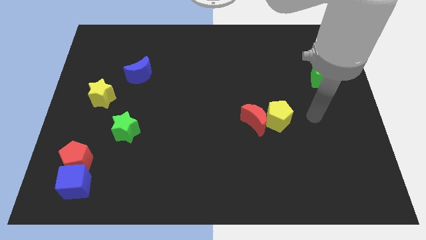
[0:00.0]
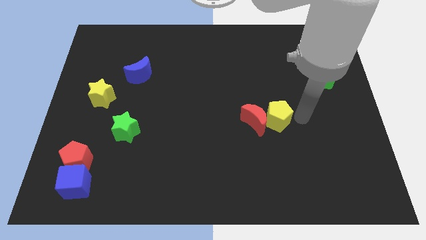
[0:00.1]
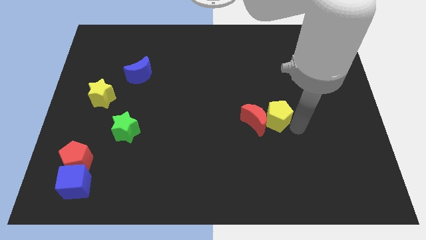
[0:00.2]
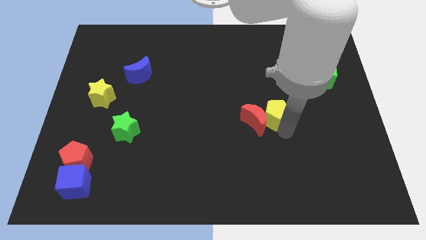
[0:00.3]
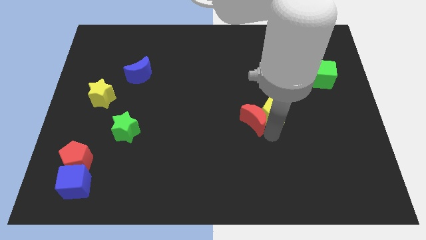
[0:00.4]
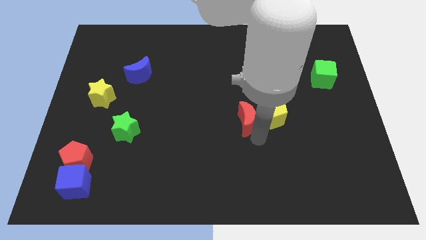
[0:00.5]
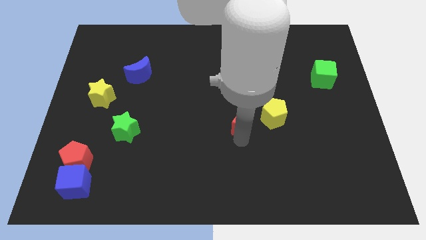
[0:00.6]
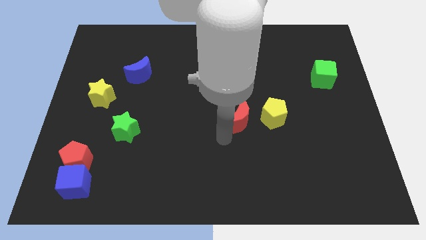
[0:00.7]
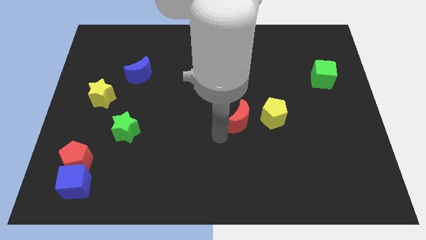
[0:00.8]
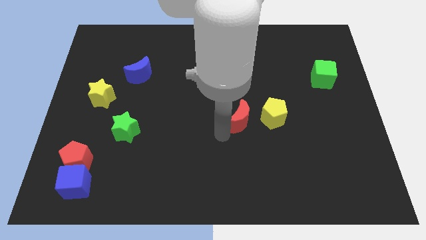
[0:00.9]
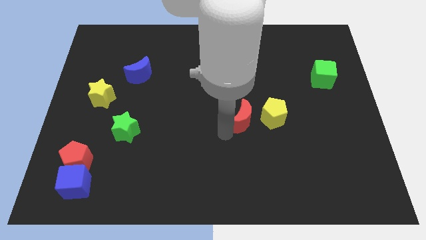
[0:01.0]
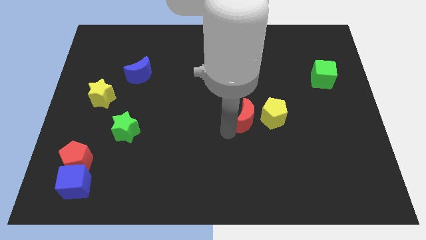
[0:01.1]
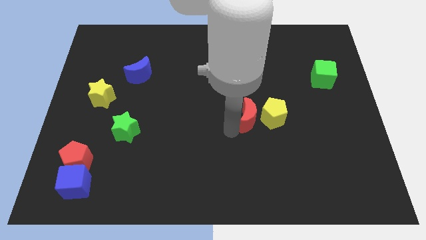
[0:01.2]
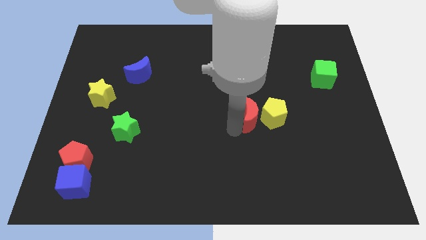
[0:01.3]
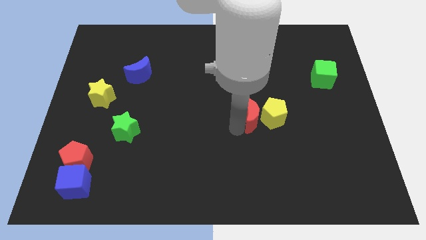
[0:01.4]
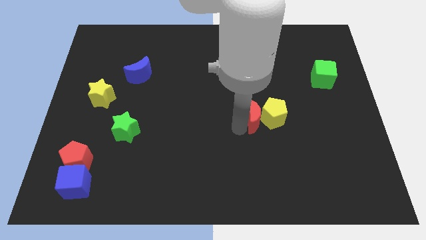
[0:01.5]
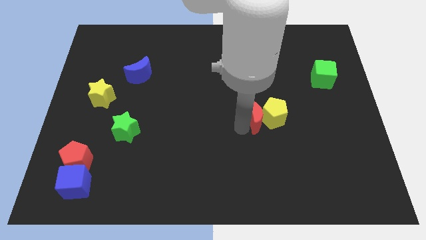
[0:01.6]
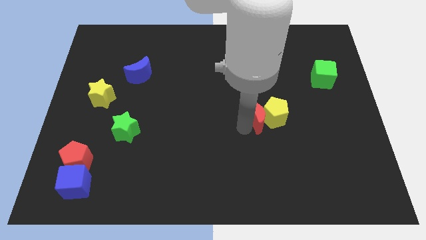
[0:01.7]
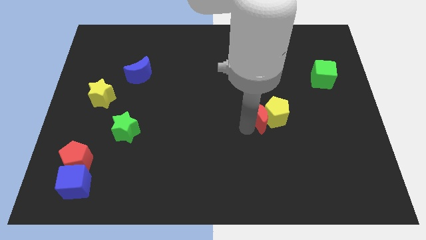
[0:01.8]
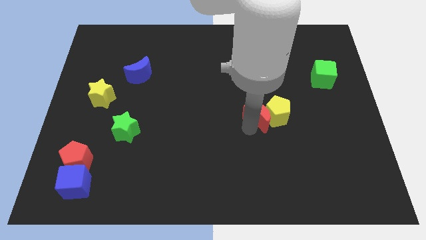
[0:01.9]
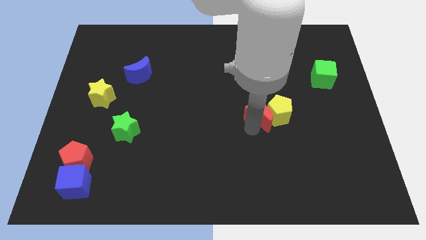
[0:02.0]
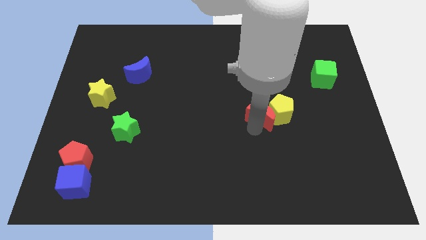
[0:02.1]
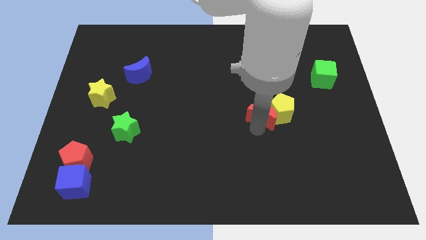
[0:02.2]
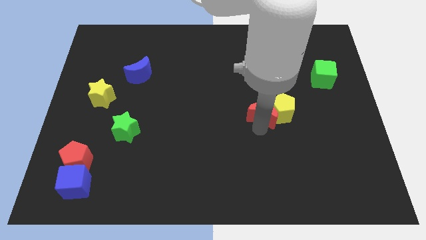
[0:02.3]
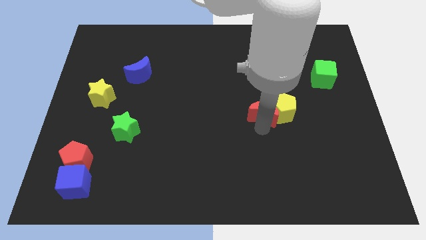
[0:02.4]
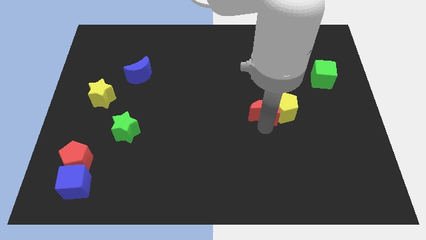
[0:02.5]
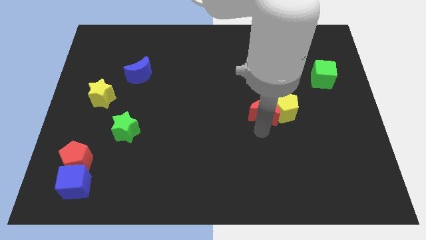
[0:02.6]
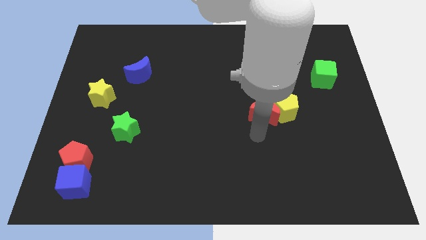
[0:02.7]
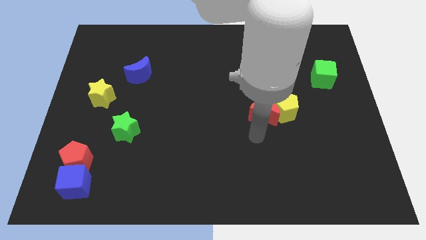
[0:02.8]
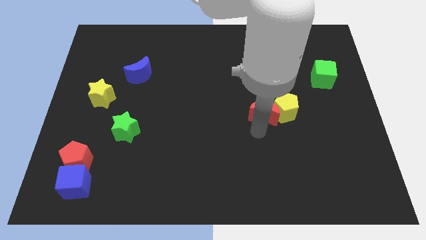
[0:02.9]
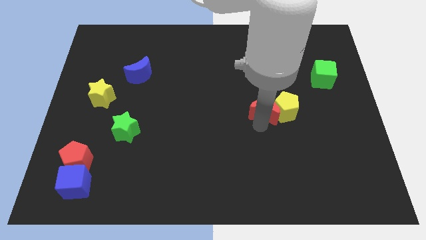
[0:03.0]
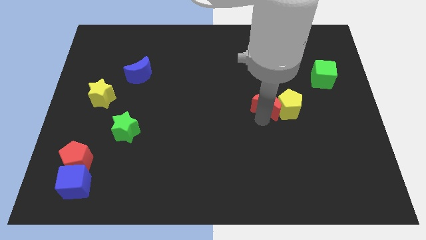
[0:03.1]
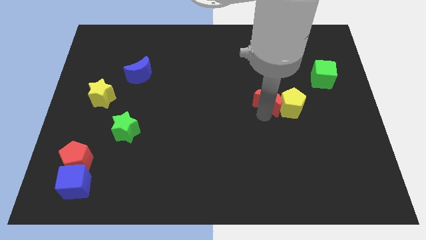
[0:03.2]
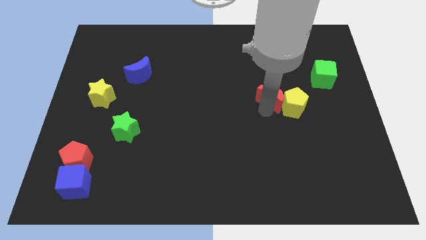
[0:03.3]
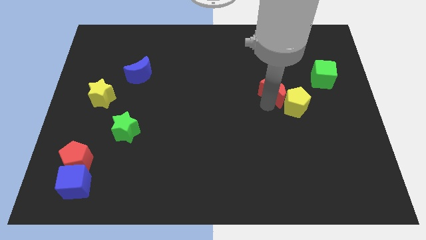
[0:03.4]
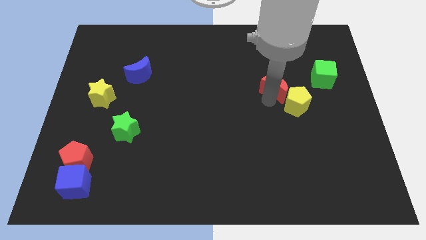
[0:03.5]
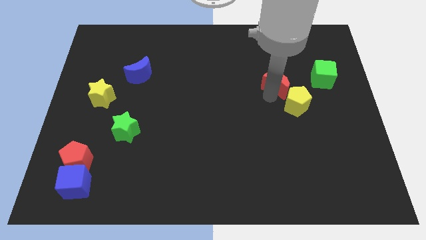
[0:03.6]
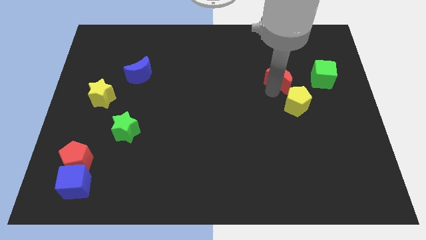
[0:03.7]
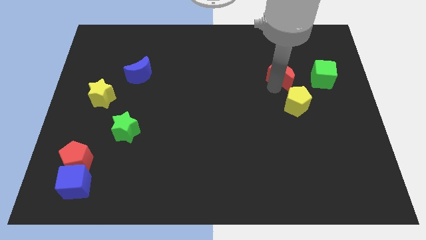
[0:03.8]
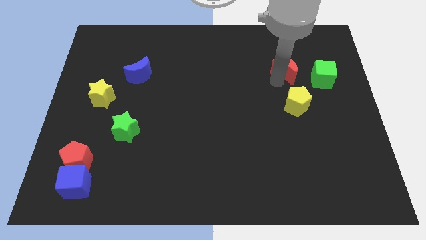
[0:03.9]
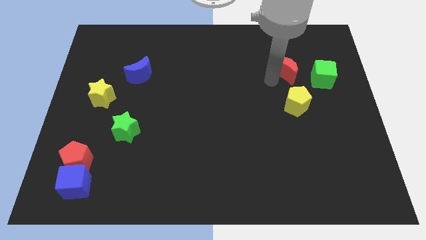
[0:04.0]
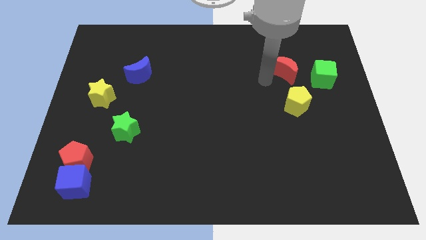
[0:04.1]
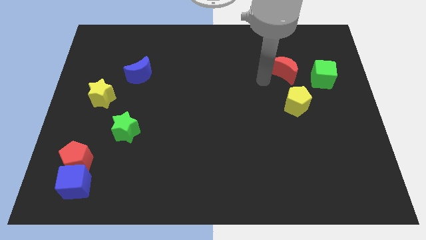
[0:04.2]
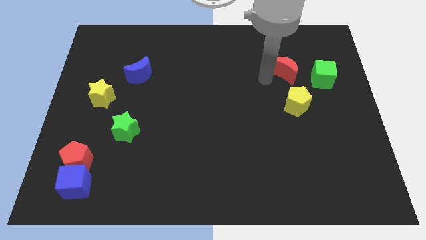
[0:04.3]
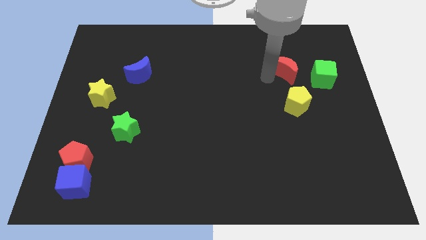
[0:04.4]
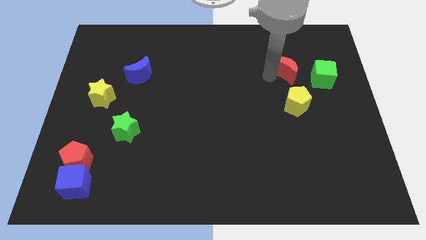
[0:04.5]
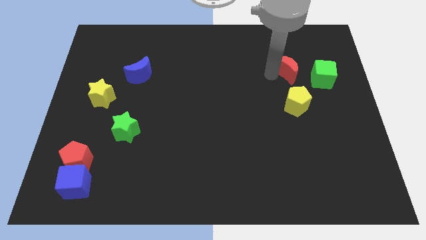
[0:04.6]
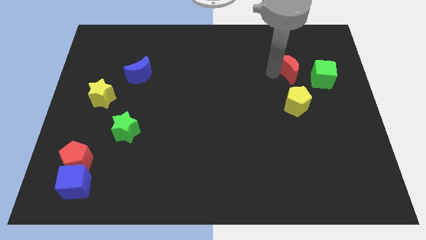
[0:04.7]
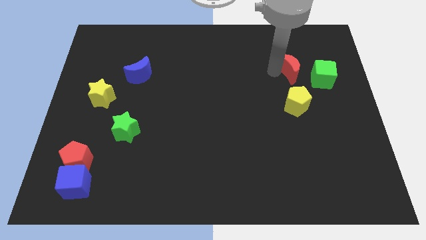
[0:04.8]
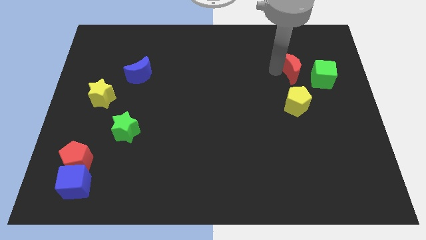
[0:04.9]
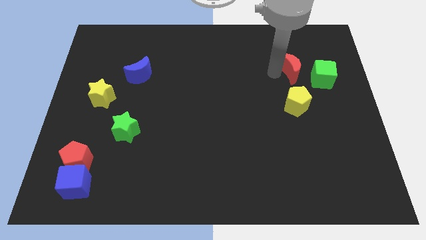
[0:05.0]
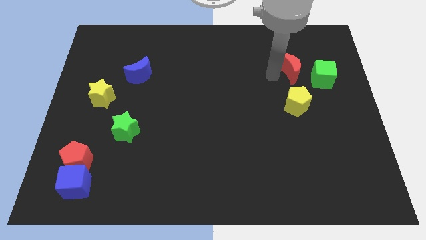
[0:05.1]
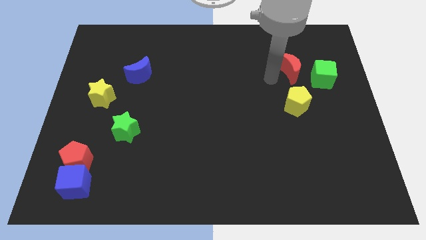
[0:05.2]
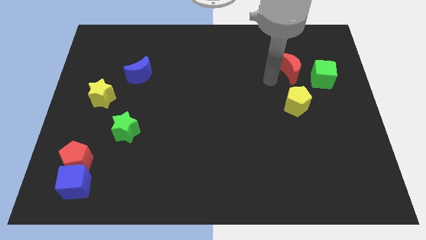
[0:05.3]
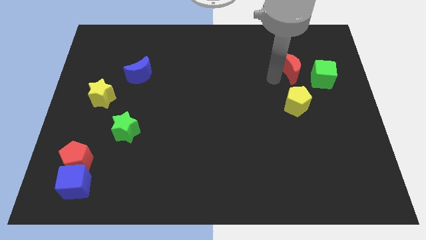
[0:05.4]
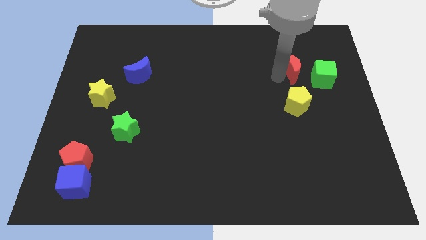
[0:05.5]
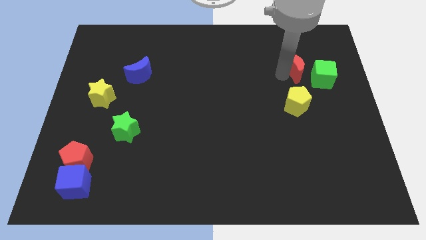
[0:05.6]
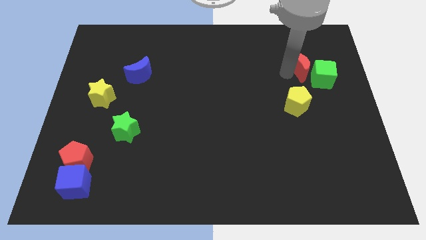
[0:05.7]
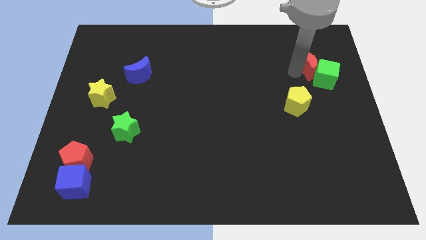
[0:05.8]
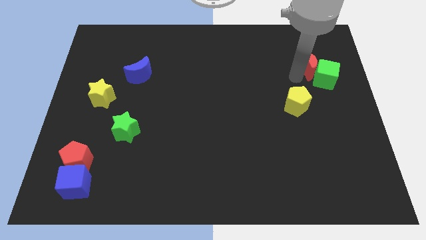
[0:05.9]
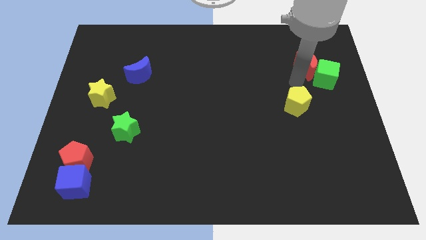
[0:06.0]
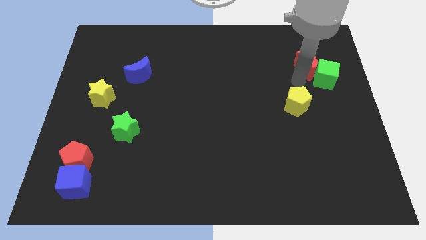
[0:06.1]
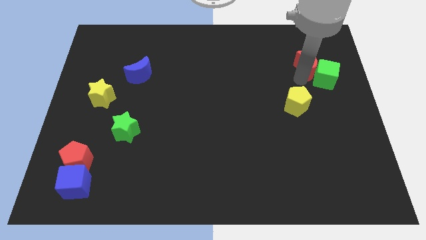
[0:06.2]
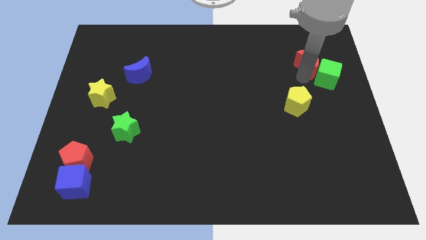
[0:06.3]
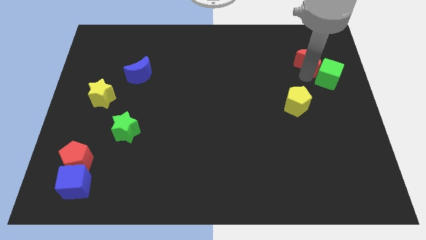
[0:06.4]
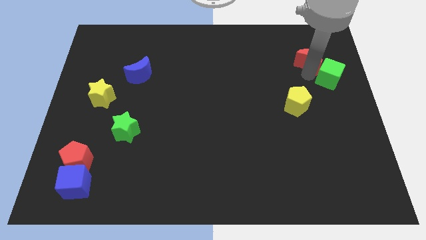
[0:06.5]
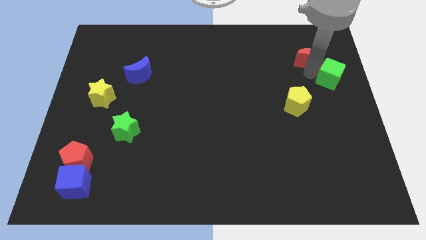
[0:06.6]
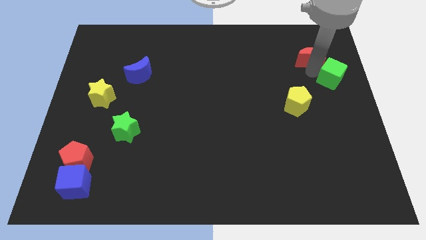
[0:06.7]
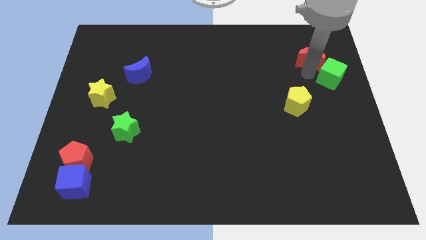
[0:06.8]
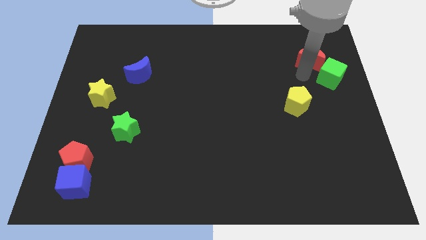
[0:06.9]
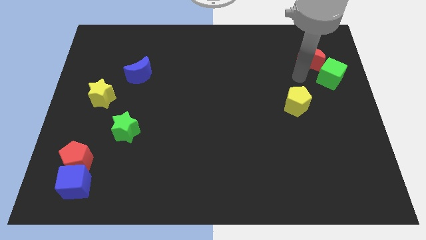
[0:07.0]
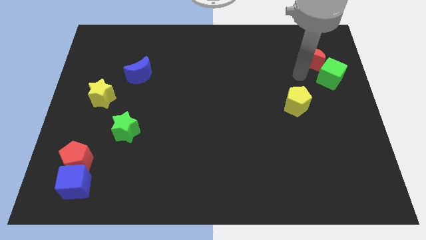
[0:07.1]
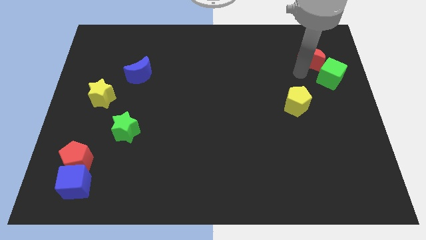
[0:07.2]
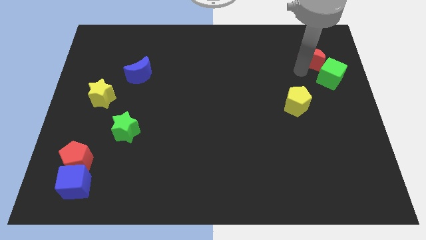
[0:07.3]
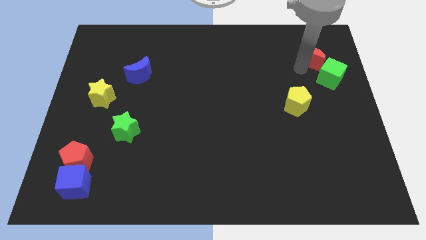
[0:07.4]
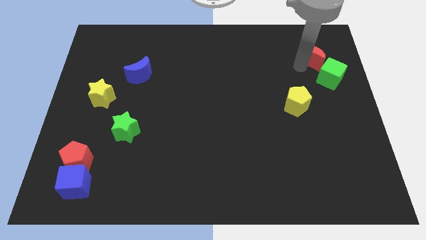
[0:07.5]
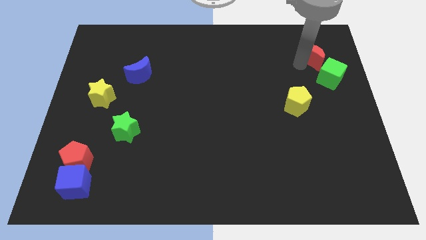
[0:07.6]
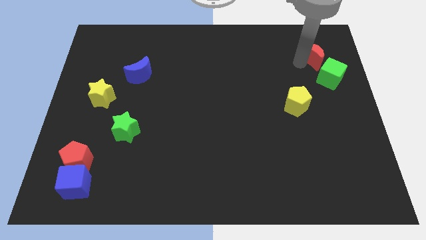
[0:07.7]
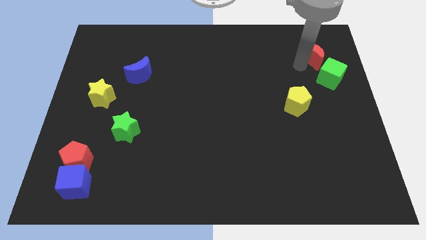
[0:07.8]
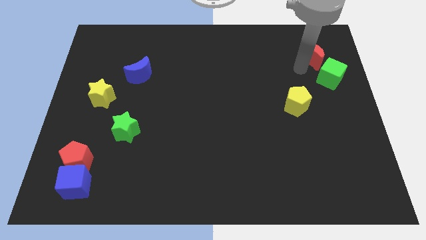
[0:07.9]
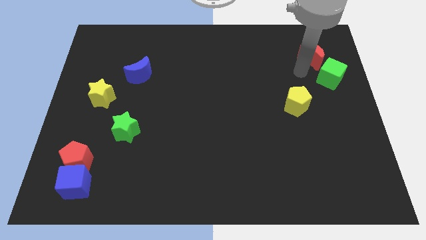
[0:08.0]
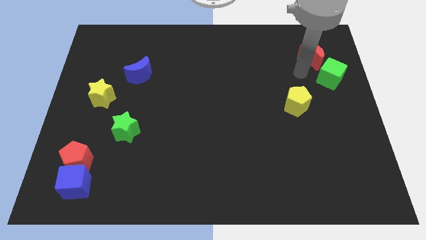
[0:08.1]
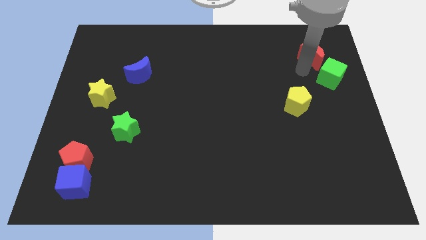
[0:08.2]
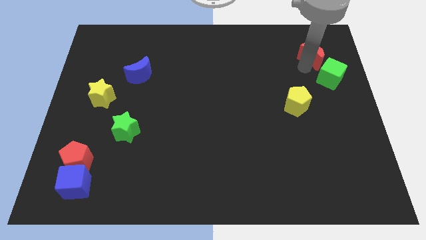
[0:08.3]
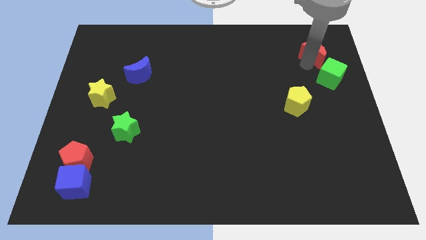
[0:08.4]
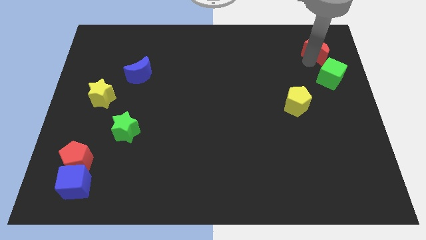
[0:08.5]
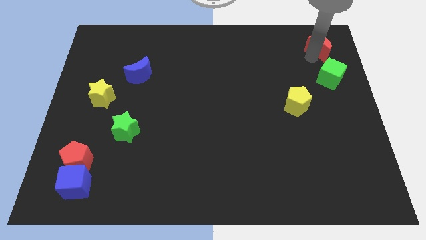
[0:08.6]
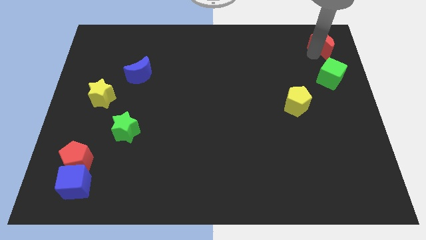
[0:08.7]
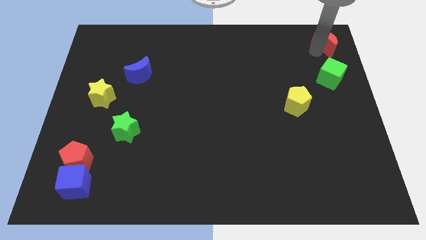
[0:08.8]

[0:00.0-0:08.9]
slide the red moon to the top right of the board
